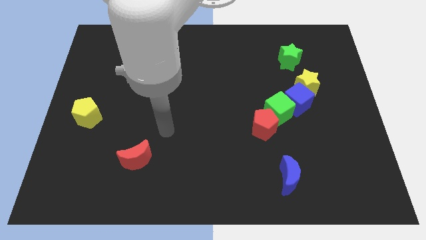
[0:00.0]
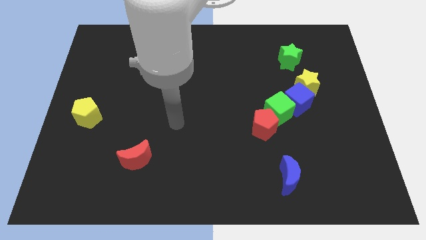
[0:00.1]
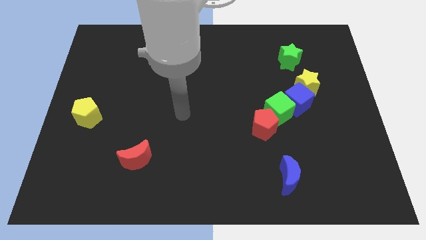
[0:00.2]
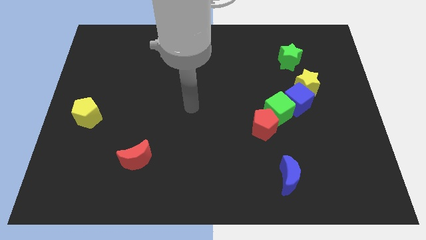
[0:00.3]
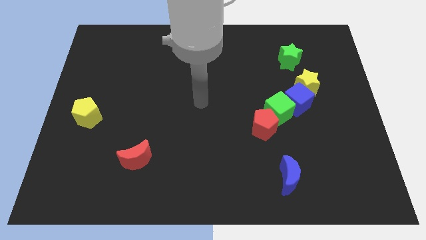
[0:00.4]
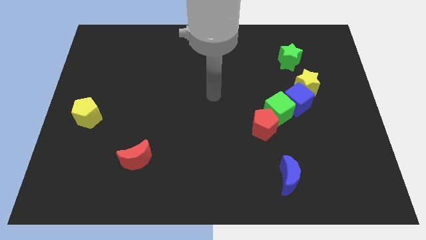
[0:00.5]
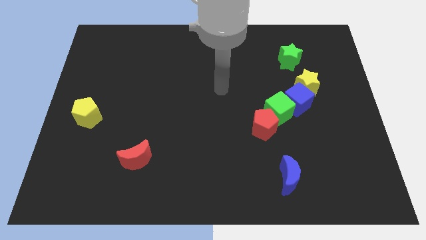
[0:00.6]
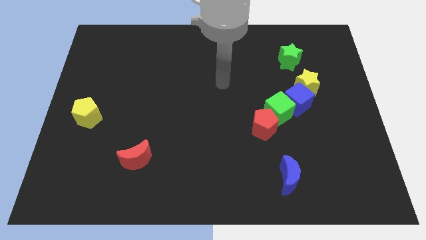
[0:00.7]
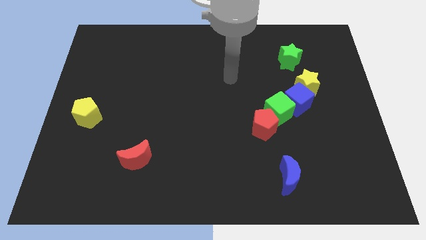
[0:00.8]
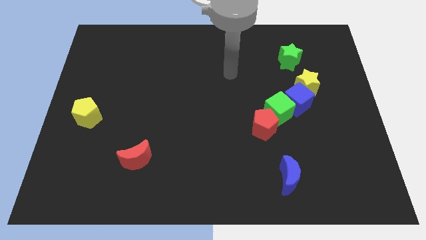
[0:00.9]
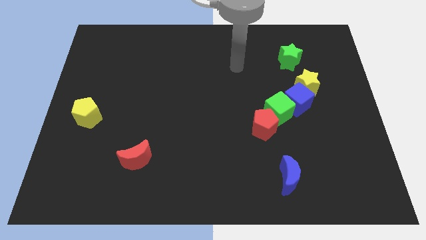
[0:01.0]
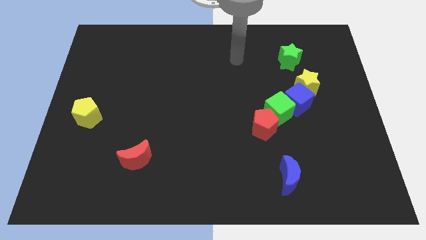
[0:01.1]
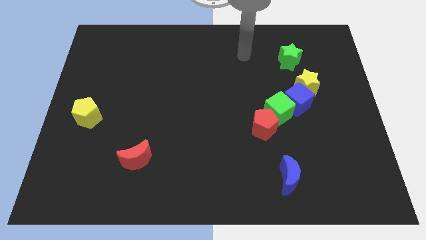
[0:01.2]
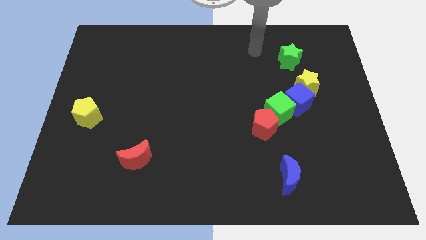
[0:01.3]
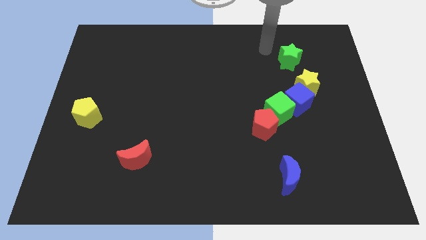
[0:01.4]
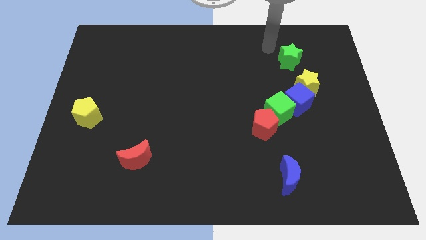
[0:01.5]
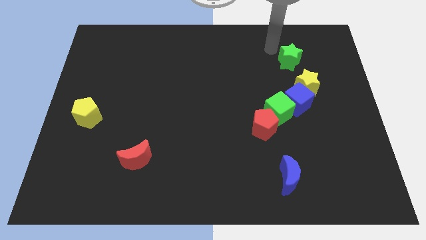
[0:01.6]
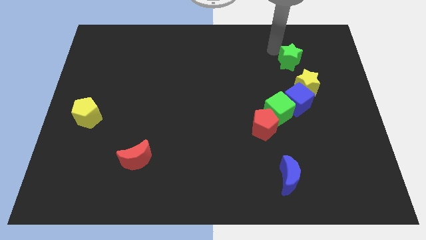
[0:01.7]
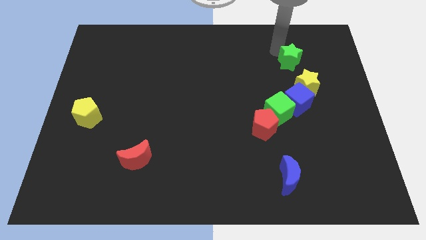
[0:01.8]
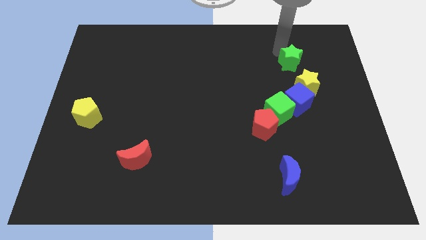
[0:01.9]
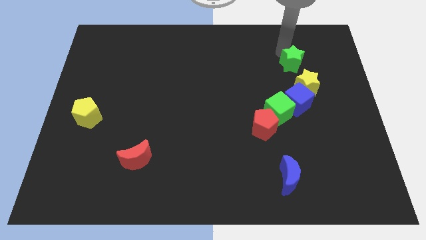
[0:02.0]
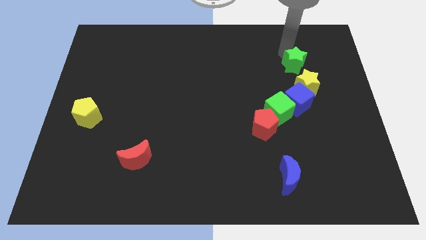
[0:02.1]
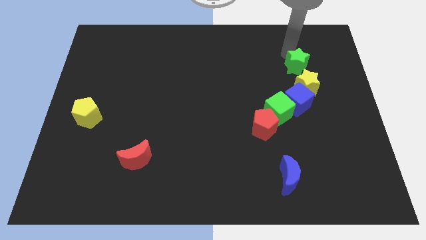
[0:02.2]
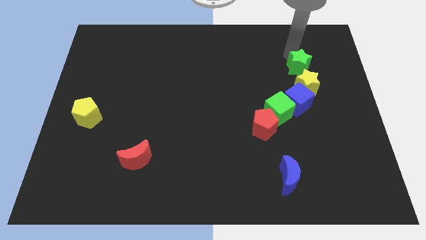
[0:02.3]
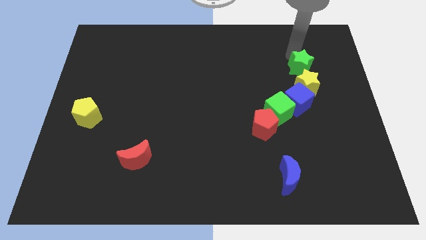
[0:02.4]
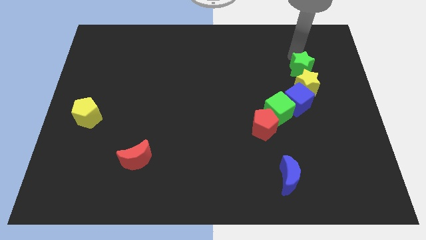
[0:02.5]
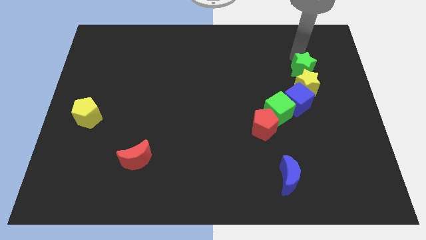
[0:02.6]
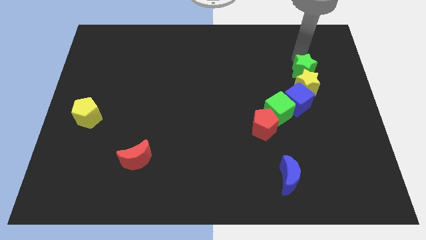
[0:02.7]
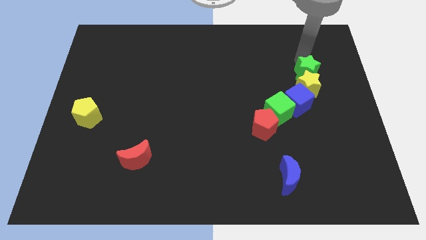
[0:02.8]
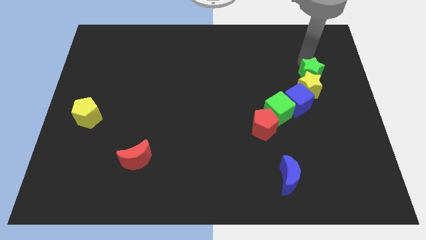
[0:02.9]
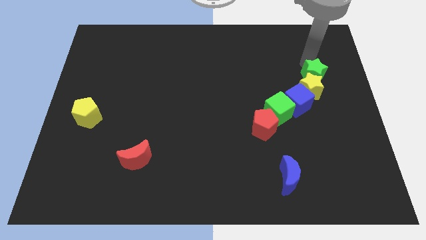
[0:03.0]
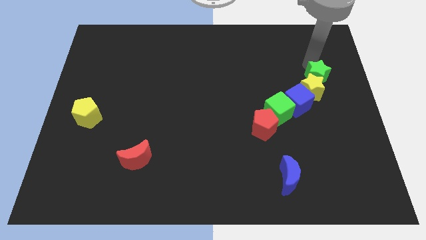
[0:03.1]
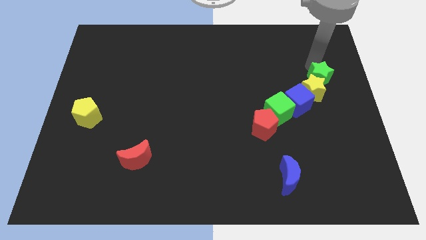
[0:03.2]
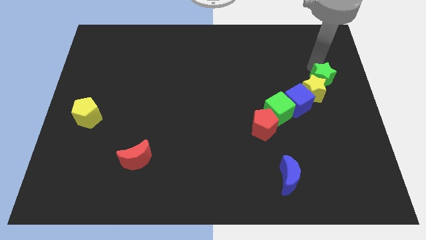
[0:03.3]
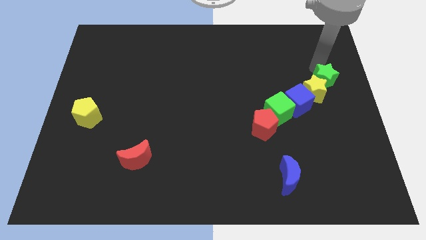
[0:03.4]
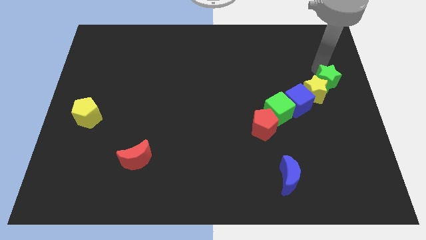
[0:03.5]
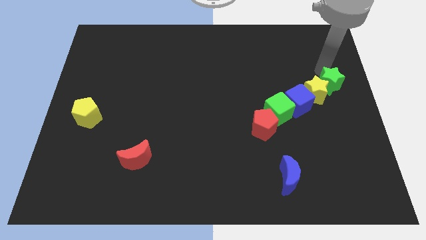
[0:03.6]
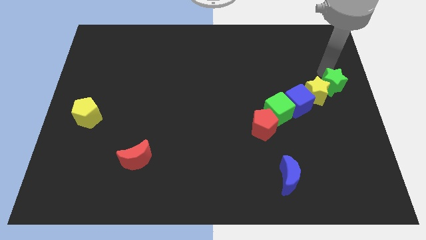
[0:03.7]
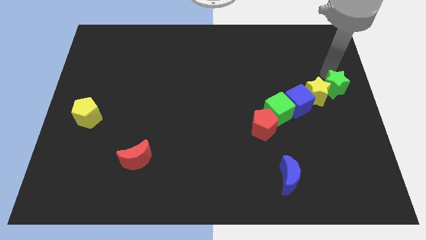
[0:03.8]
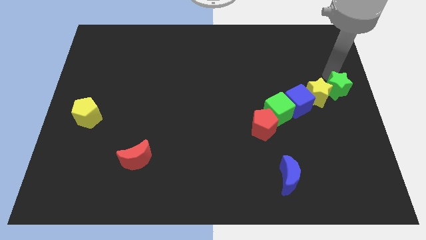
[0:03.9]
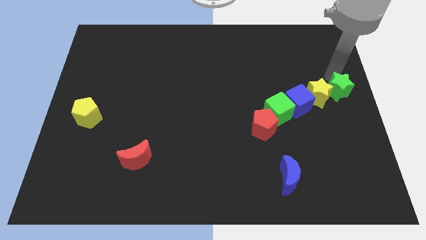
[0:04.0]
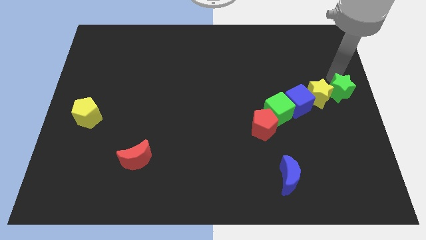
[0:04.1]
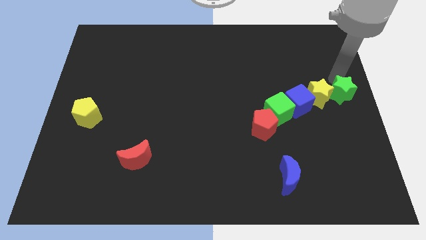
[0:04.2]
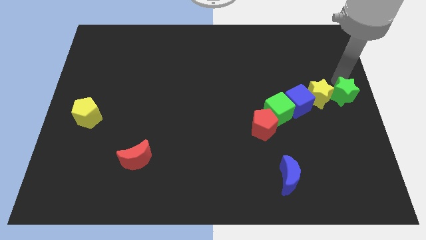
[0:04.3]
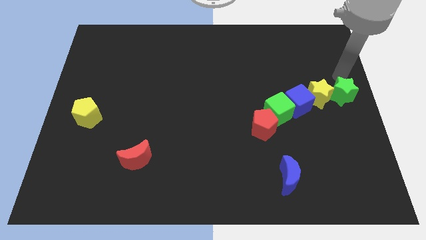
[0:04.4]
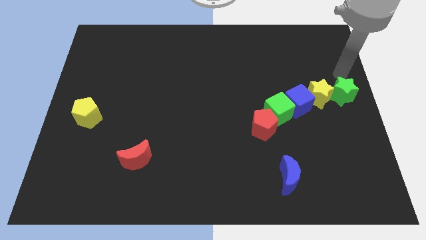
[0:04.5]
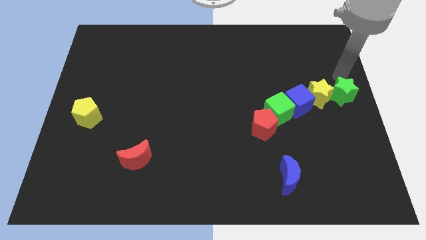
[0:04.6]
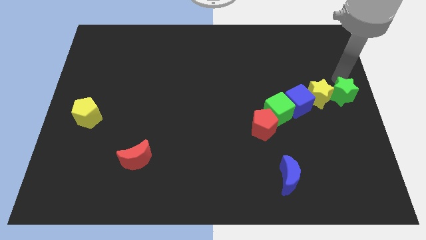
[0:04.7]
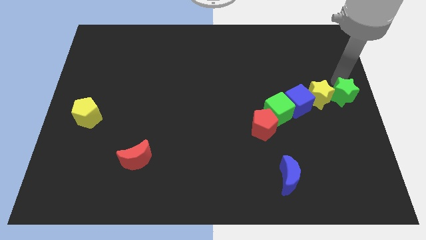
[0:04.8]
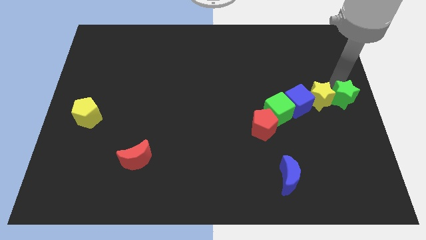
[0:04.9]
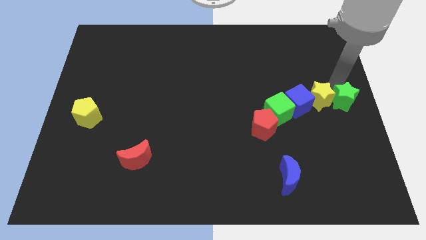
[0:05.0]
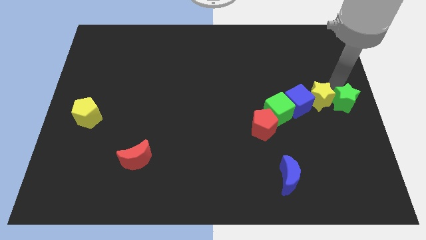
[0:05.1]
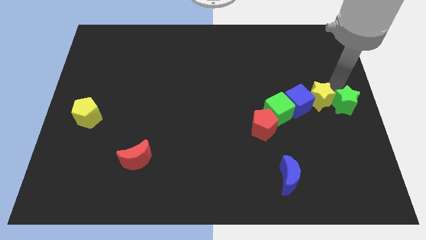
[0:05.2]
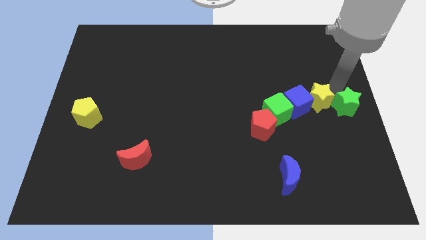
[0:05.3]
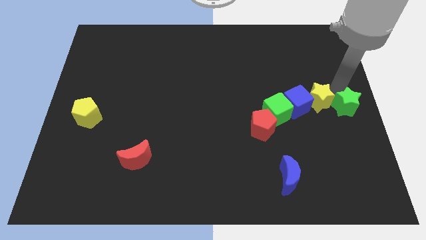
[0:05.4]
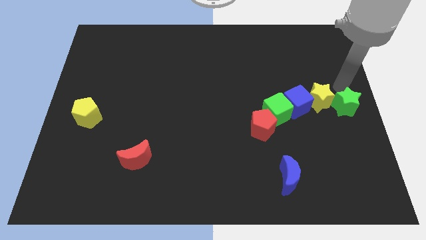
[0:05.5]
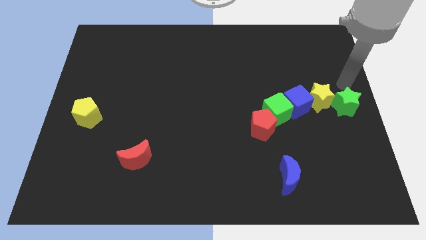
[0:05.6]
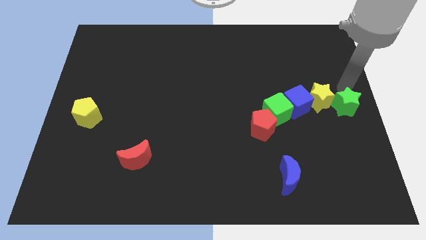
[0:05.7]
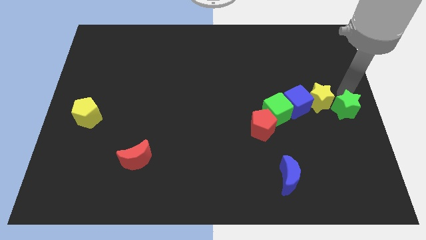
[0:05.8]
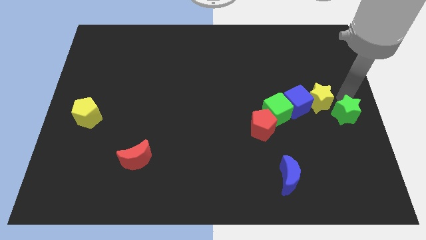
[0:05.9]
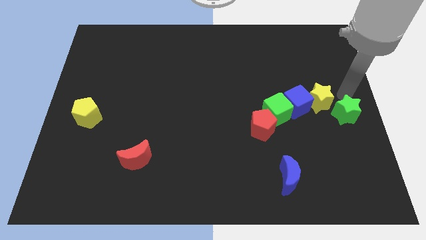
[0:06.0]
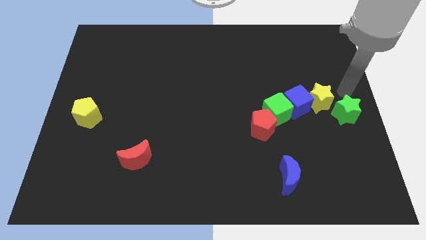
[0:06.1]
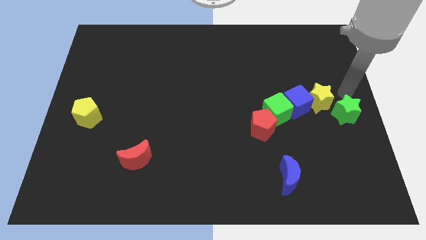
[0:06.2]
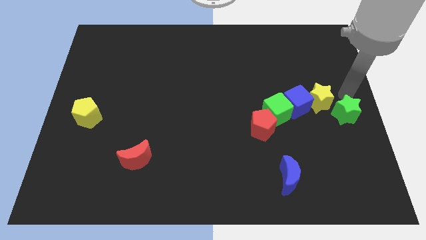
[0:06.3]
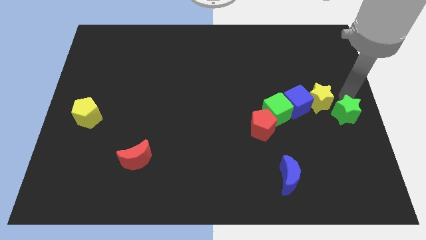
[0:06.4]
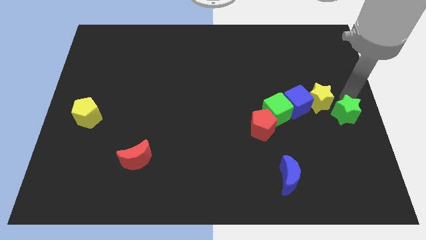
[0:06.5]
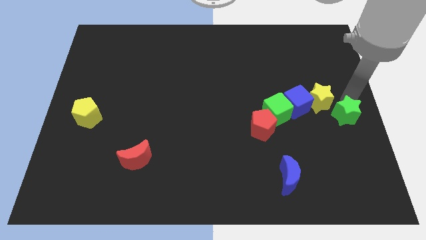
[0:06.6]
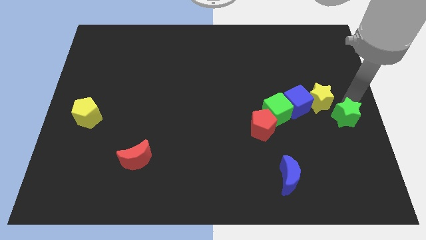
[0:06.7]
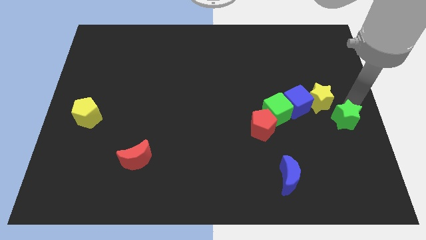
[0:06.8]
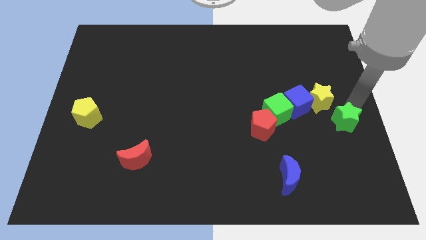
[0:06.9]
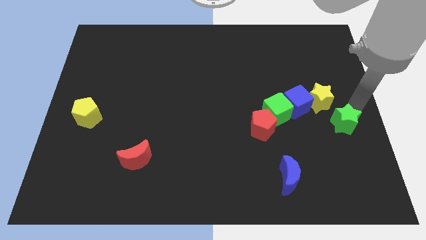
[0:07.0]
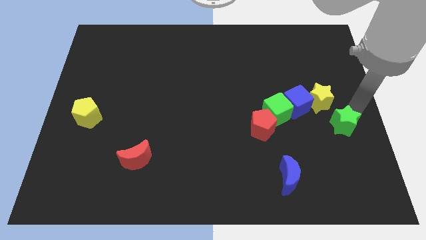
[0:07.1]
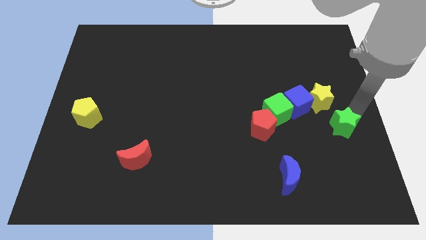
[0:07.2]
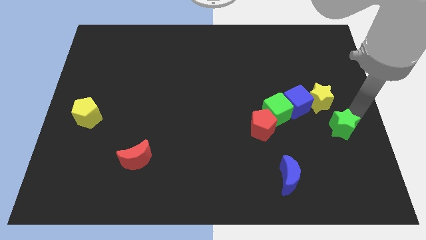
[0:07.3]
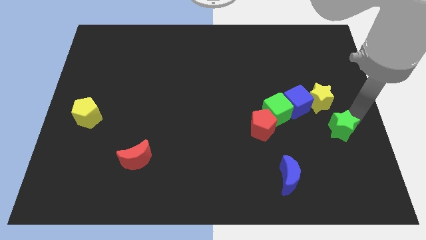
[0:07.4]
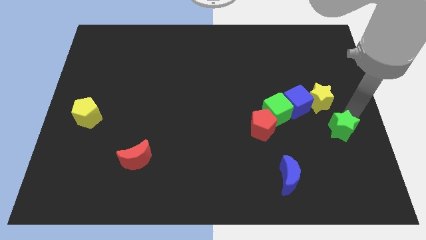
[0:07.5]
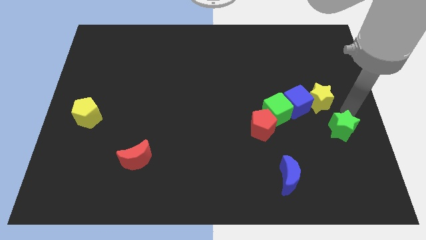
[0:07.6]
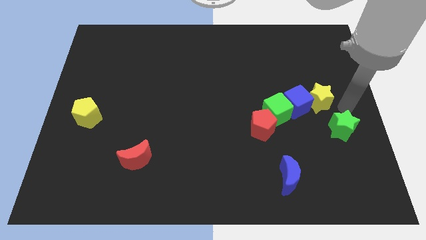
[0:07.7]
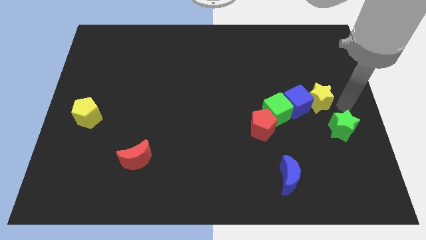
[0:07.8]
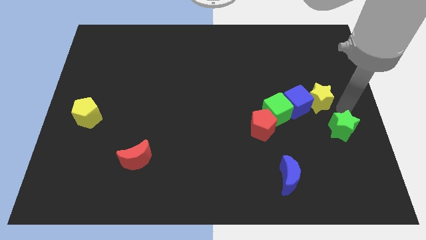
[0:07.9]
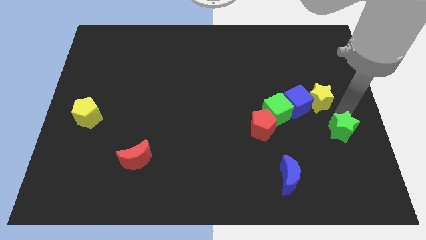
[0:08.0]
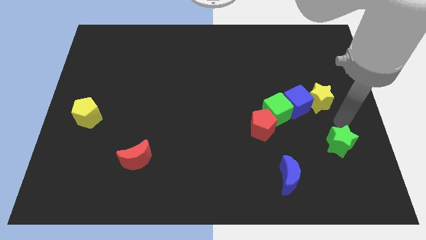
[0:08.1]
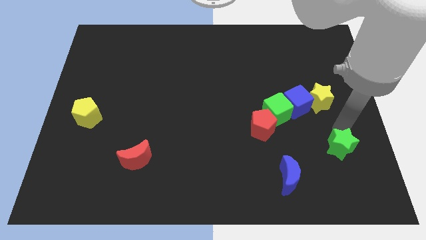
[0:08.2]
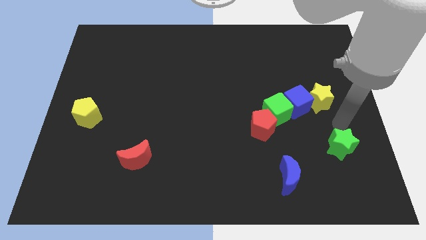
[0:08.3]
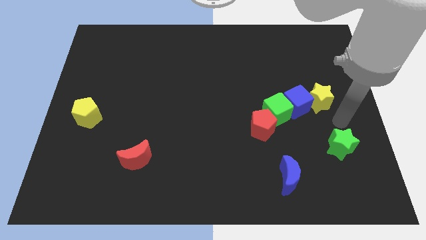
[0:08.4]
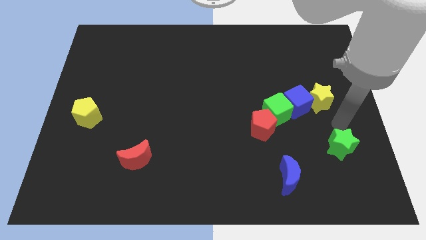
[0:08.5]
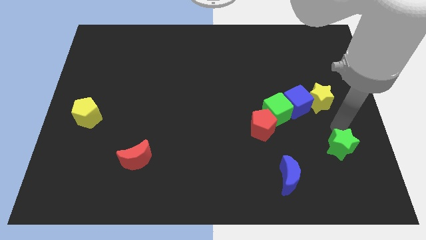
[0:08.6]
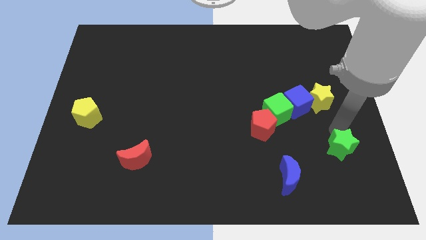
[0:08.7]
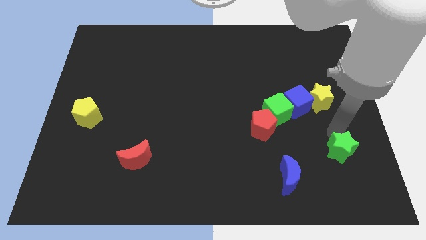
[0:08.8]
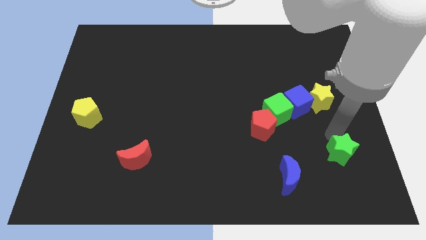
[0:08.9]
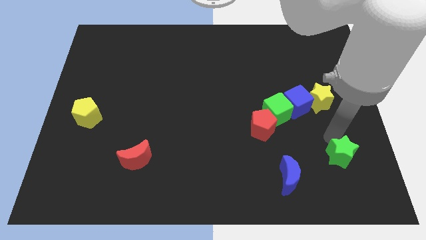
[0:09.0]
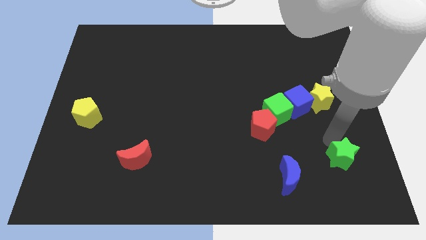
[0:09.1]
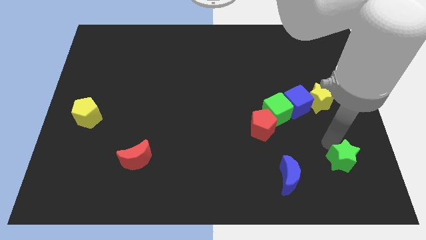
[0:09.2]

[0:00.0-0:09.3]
push the green star to the right of the blue moon
